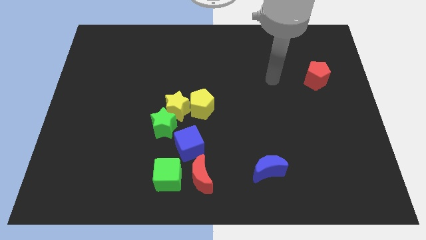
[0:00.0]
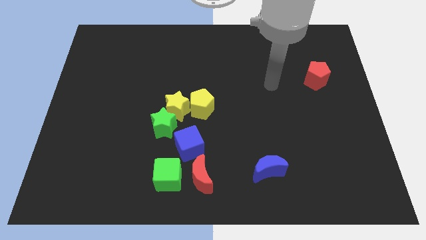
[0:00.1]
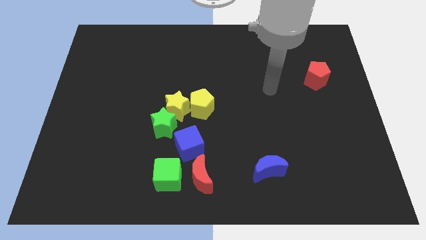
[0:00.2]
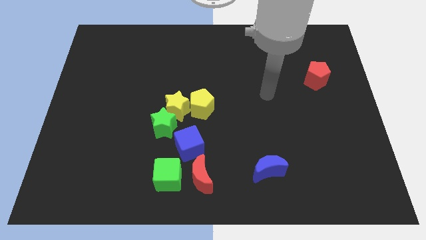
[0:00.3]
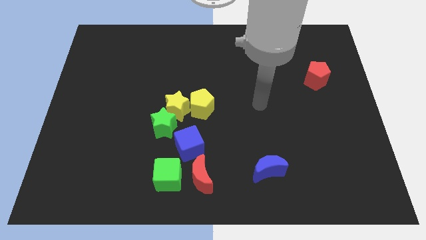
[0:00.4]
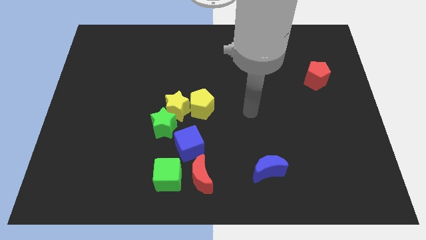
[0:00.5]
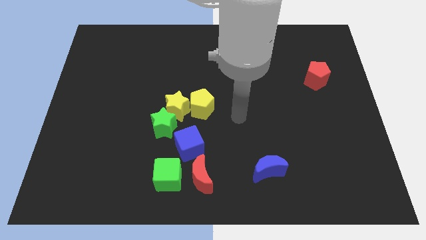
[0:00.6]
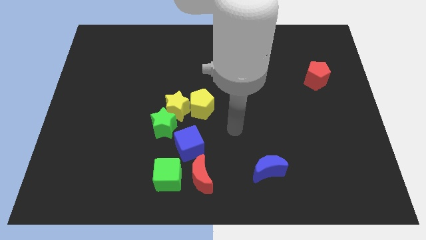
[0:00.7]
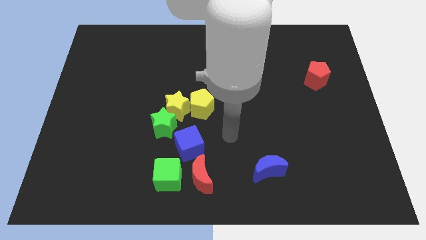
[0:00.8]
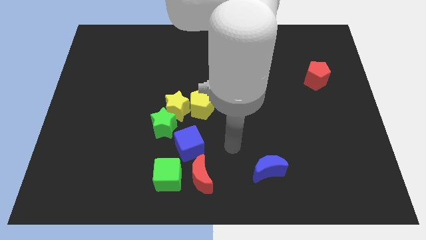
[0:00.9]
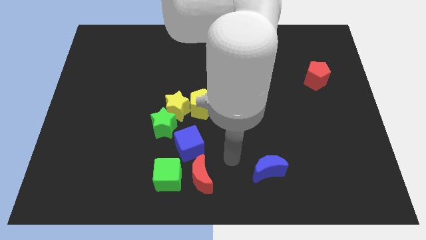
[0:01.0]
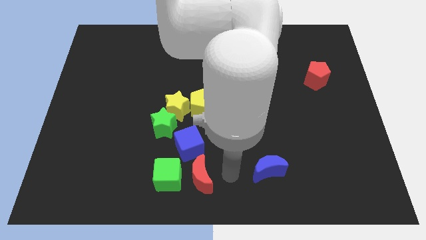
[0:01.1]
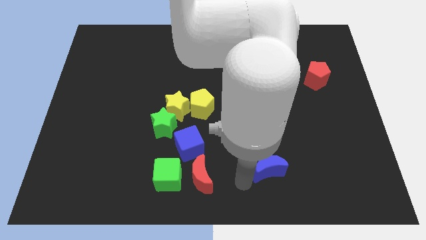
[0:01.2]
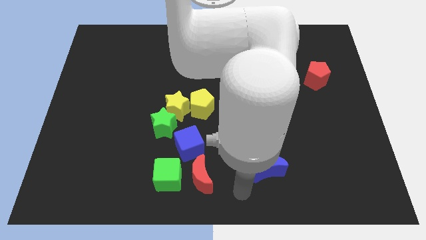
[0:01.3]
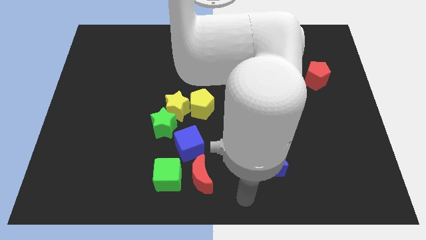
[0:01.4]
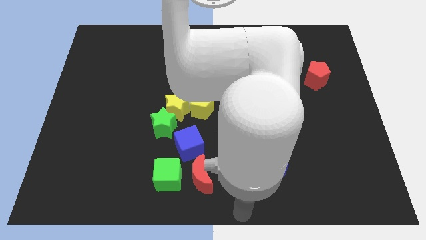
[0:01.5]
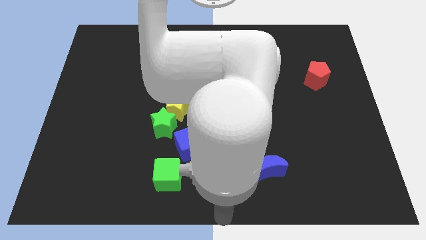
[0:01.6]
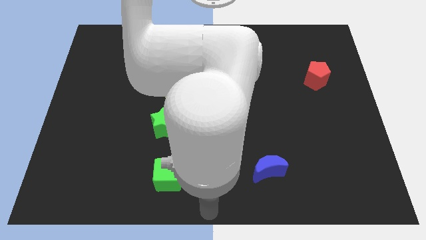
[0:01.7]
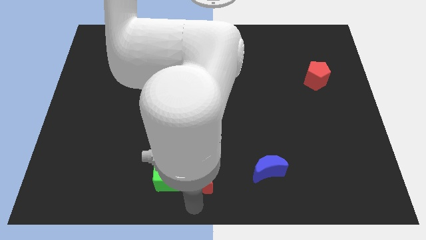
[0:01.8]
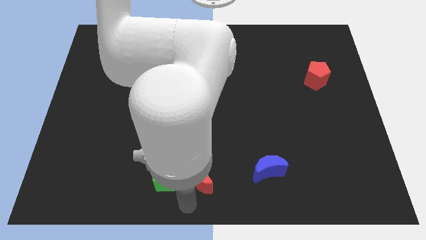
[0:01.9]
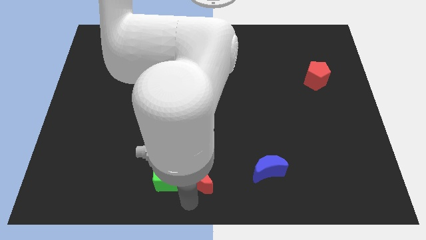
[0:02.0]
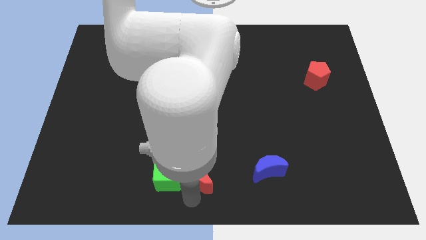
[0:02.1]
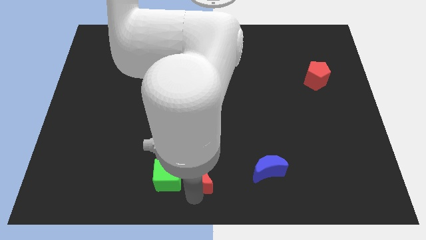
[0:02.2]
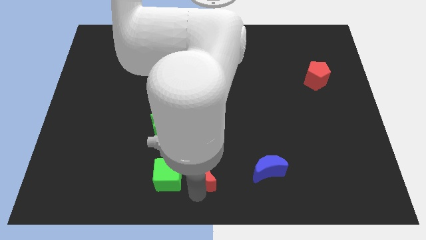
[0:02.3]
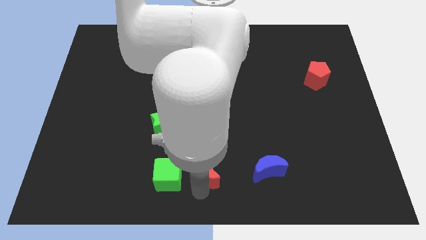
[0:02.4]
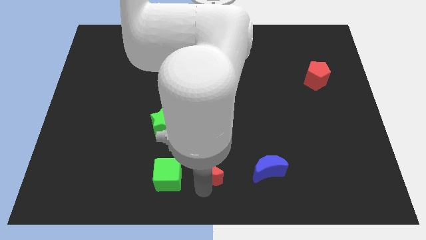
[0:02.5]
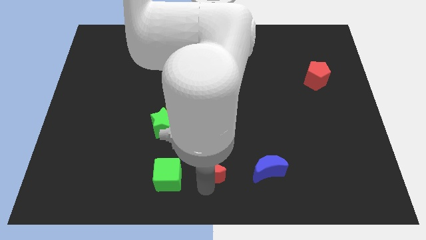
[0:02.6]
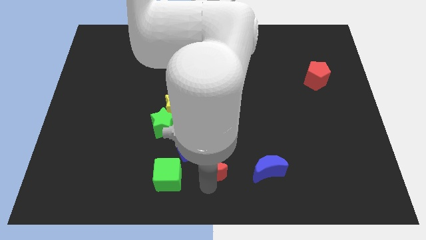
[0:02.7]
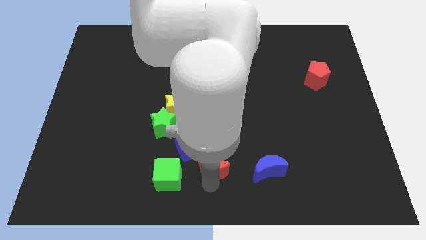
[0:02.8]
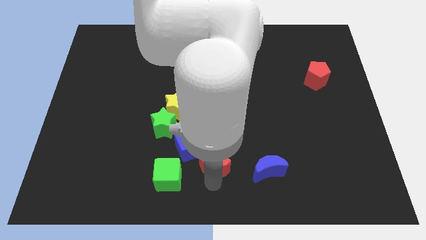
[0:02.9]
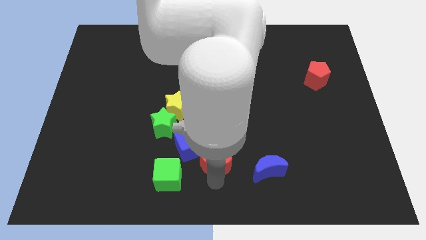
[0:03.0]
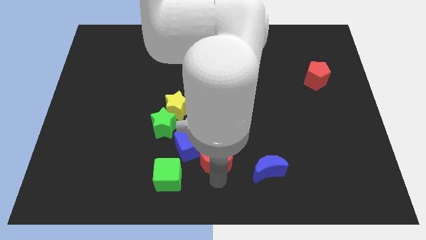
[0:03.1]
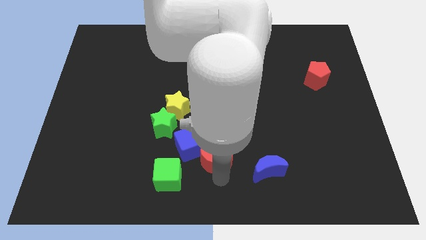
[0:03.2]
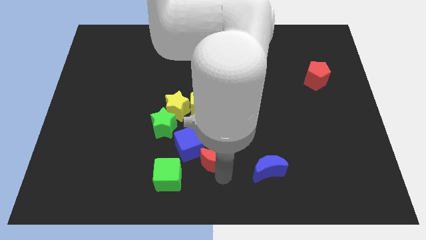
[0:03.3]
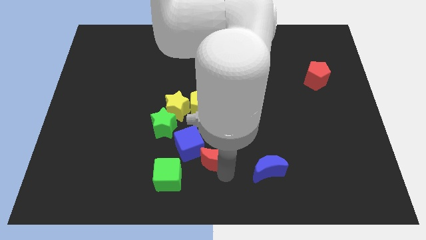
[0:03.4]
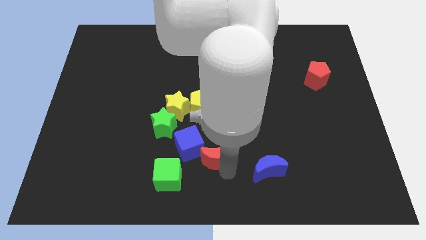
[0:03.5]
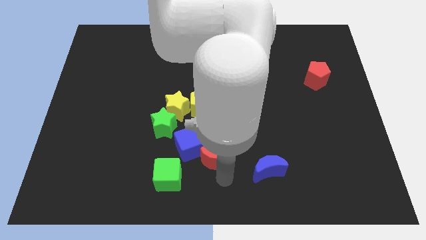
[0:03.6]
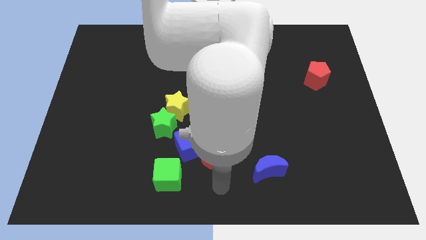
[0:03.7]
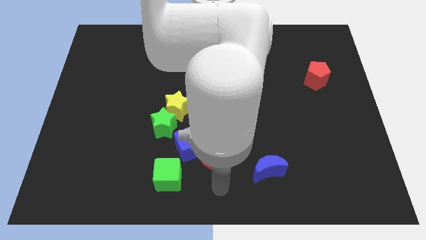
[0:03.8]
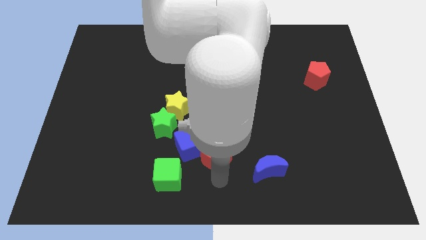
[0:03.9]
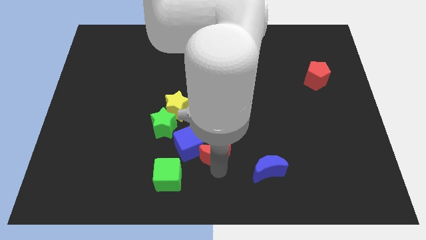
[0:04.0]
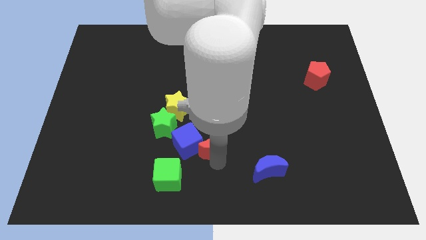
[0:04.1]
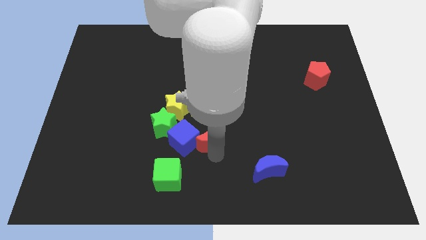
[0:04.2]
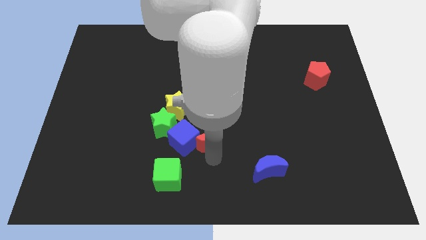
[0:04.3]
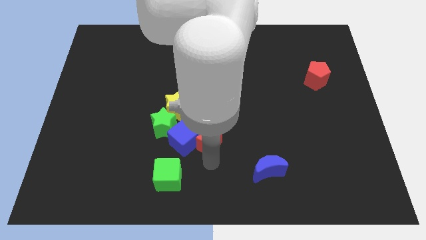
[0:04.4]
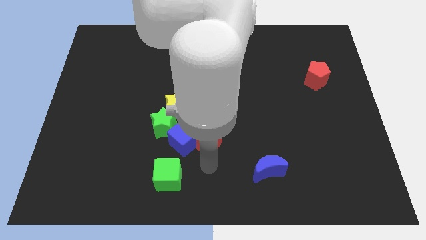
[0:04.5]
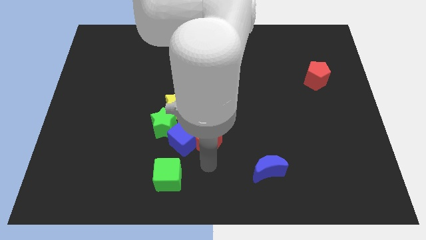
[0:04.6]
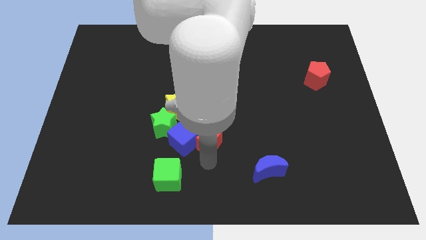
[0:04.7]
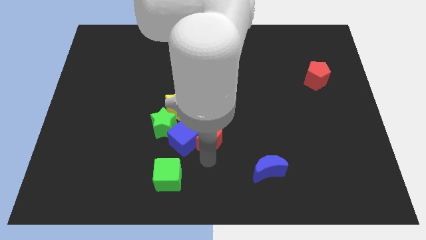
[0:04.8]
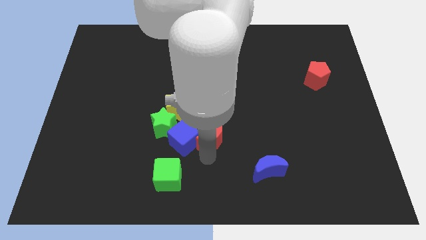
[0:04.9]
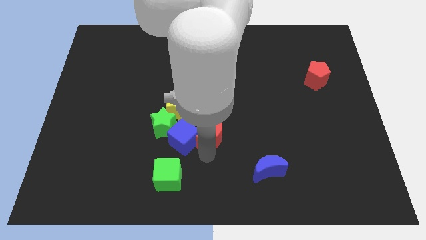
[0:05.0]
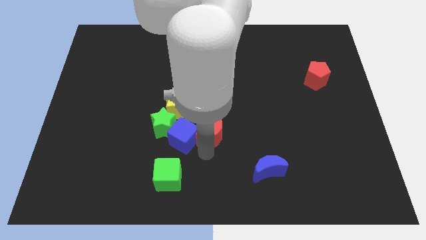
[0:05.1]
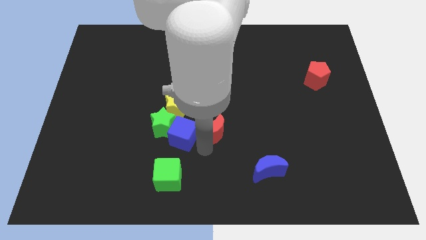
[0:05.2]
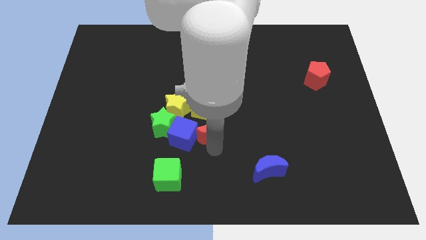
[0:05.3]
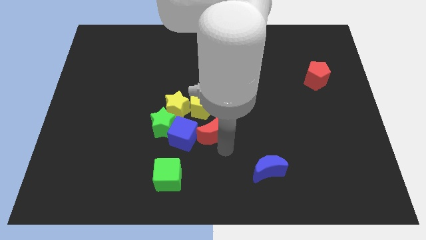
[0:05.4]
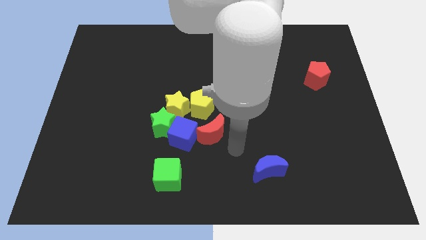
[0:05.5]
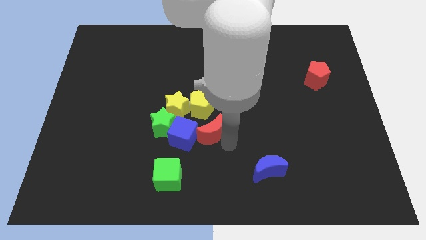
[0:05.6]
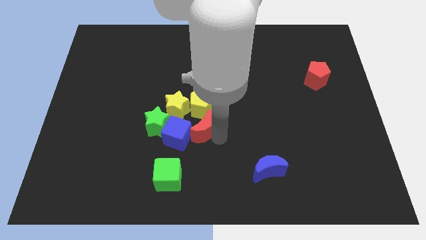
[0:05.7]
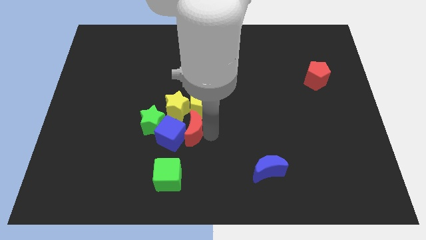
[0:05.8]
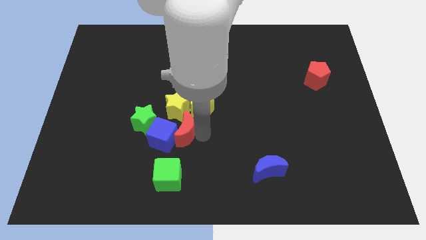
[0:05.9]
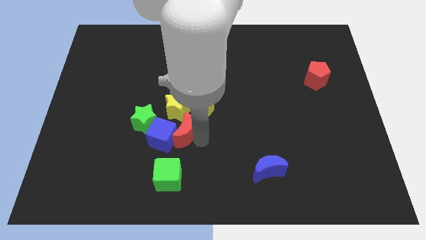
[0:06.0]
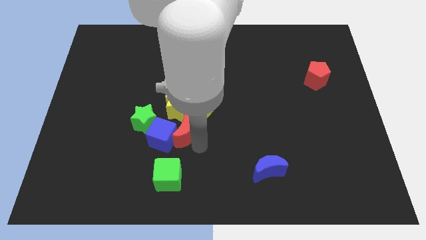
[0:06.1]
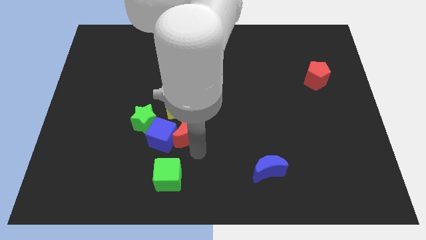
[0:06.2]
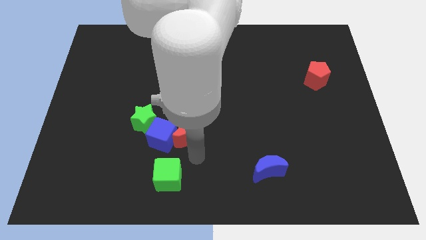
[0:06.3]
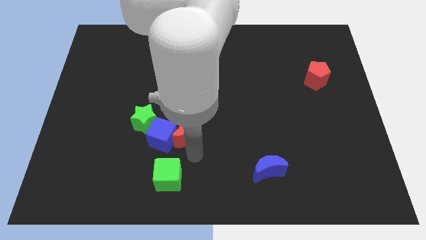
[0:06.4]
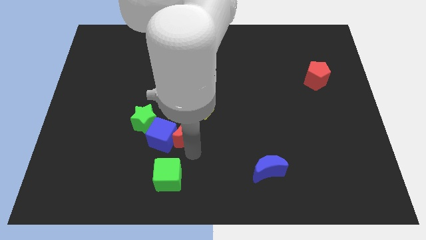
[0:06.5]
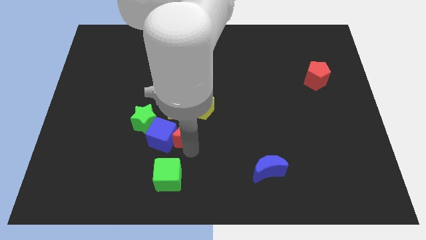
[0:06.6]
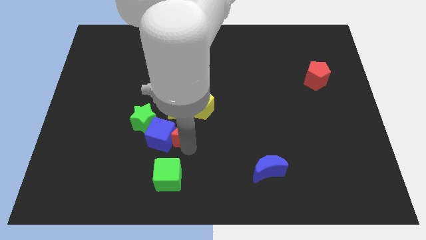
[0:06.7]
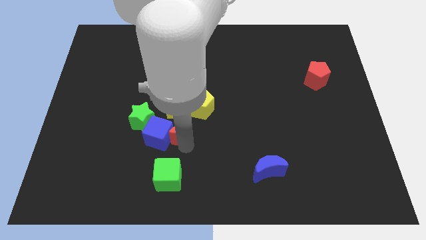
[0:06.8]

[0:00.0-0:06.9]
move the red moon to the yellow star

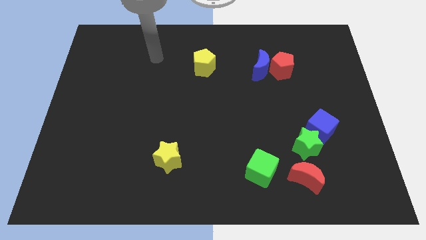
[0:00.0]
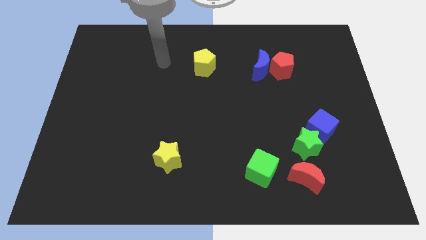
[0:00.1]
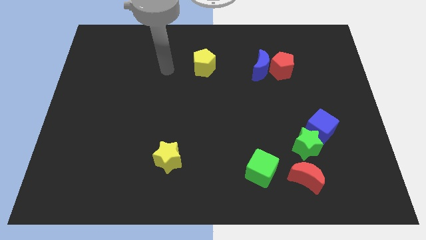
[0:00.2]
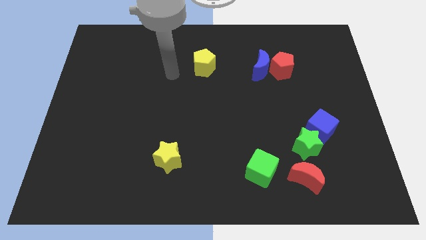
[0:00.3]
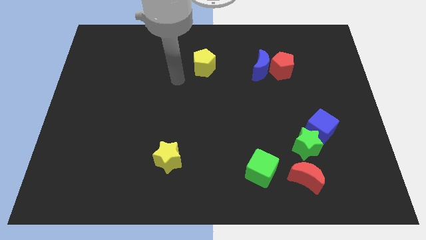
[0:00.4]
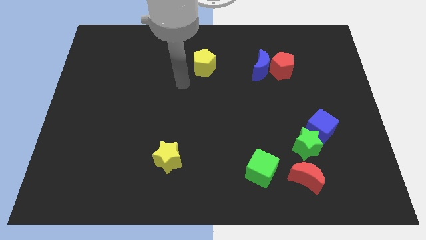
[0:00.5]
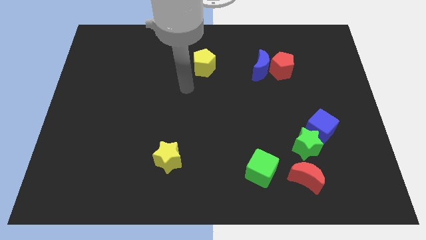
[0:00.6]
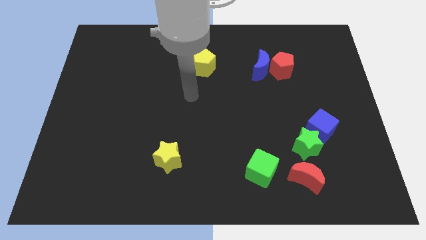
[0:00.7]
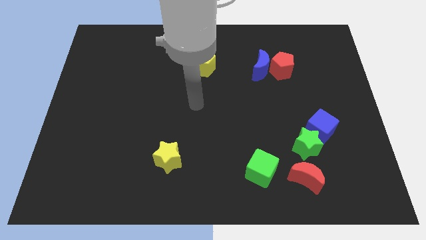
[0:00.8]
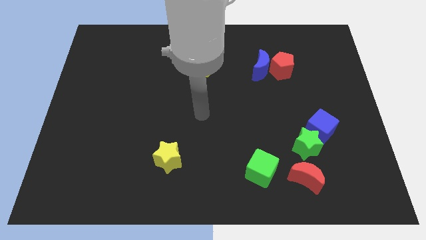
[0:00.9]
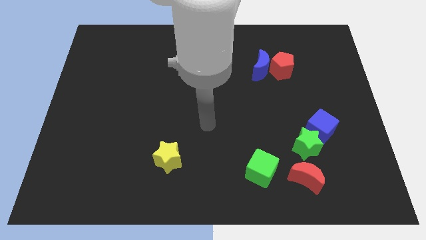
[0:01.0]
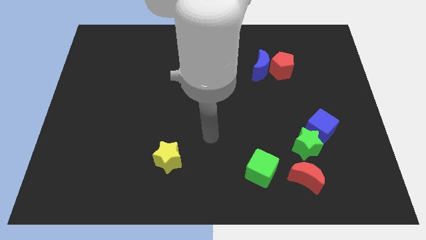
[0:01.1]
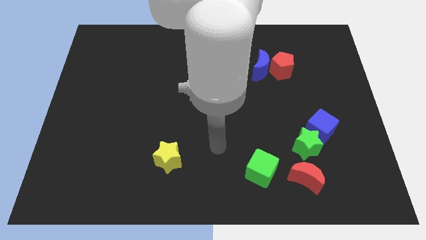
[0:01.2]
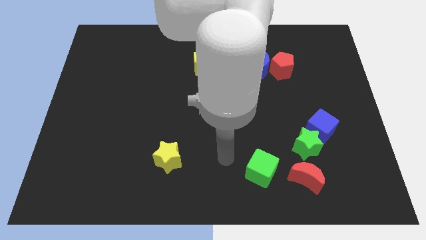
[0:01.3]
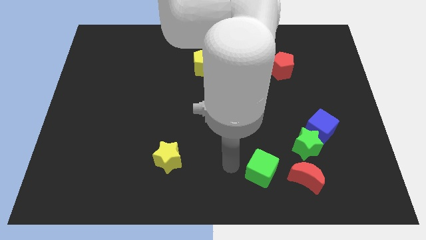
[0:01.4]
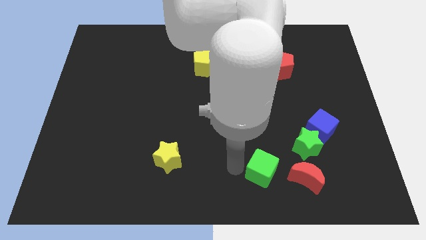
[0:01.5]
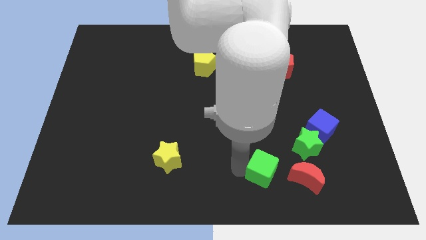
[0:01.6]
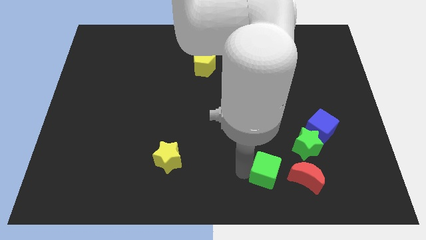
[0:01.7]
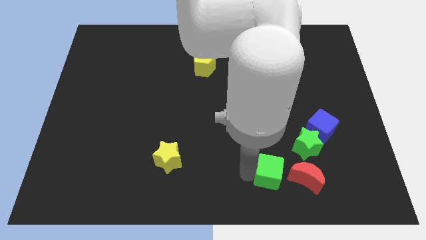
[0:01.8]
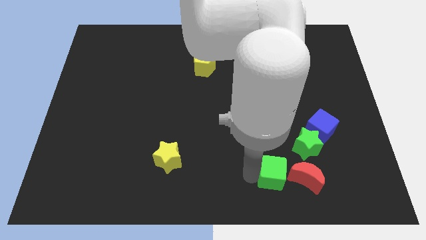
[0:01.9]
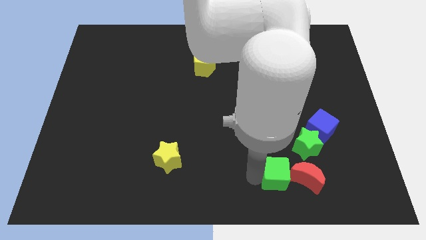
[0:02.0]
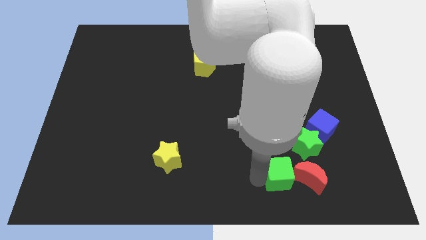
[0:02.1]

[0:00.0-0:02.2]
put the green cube next to the red moon
